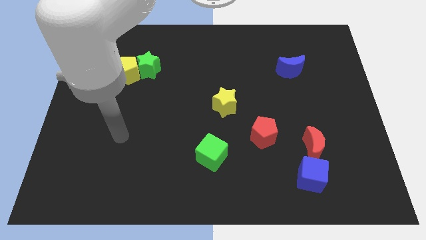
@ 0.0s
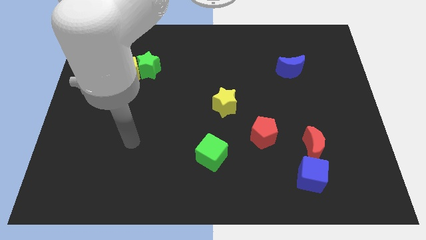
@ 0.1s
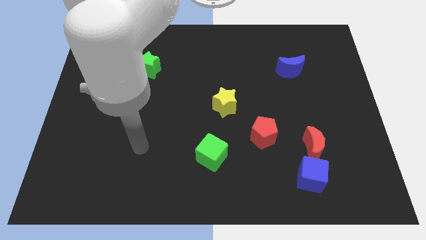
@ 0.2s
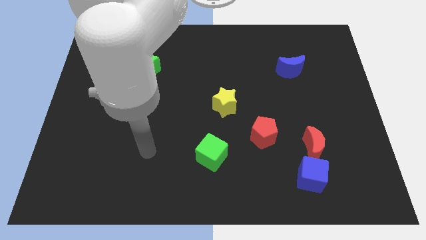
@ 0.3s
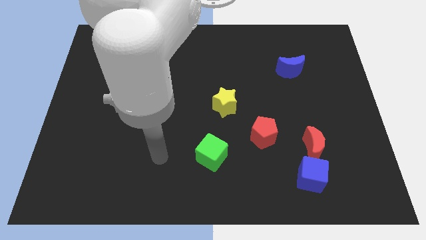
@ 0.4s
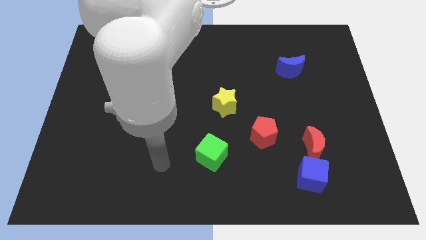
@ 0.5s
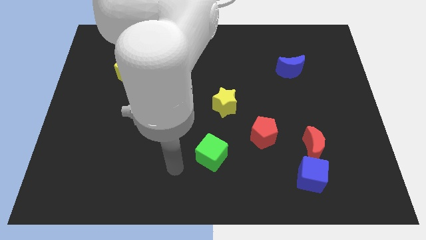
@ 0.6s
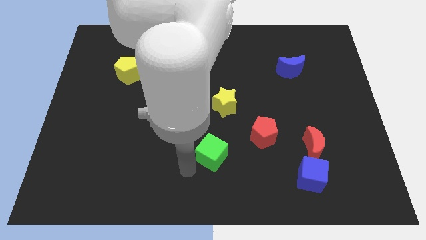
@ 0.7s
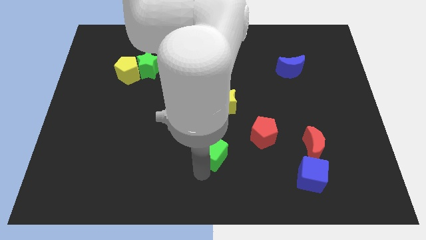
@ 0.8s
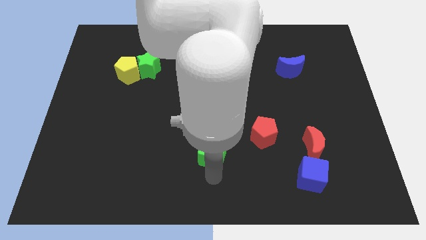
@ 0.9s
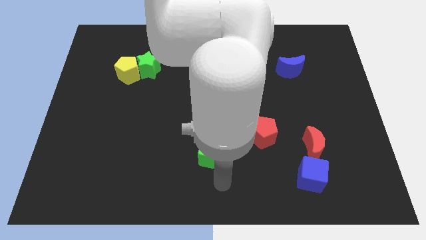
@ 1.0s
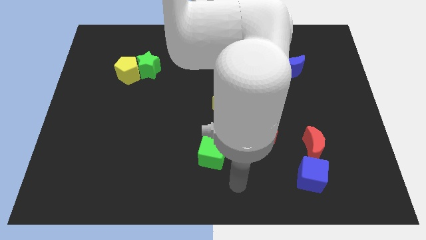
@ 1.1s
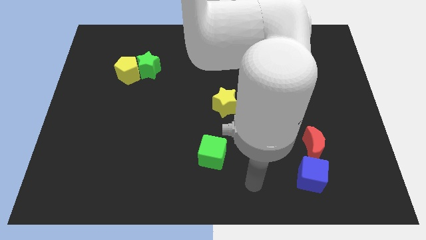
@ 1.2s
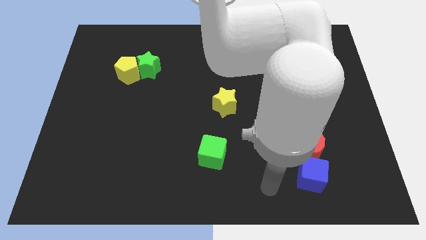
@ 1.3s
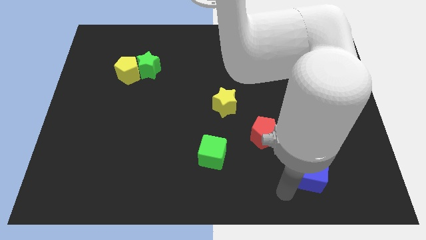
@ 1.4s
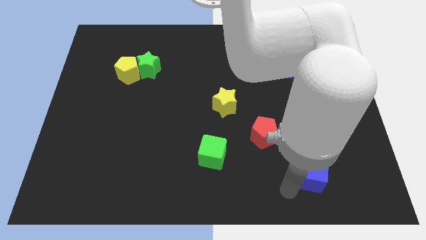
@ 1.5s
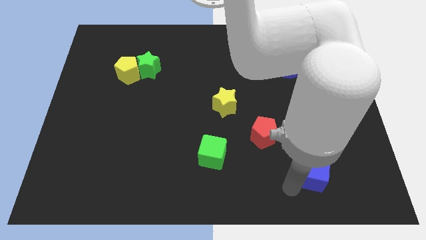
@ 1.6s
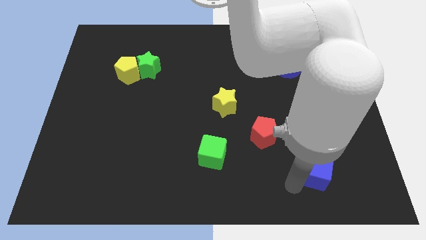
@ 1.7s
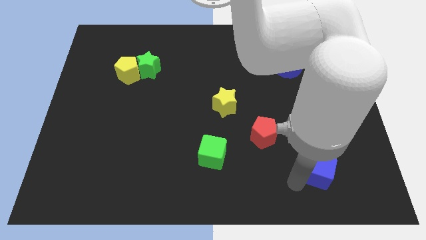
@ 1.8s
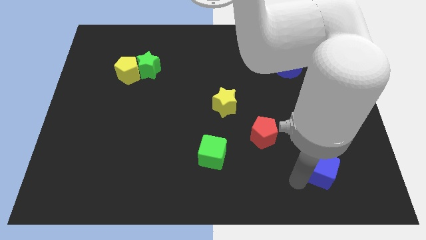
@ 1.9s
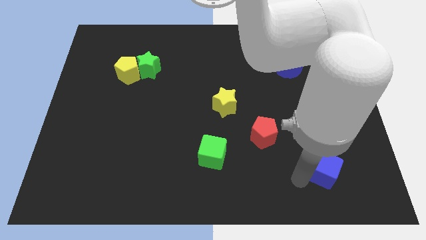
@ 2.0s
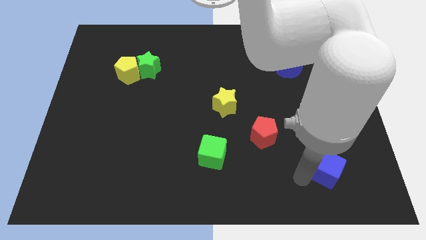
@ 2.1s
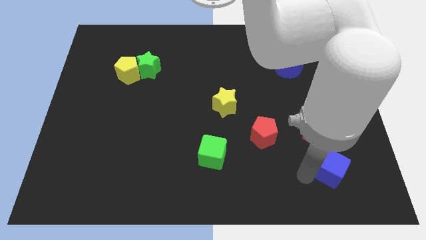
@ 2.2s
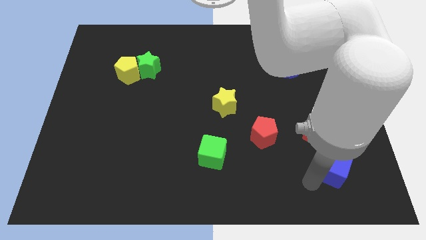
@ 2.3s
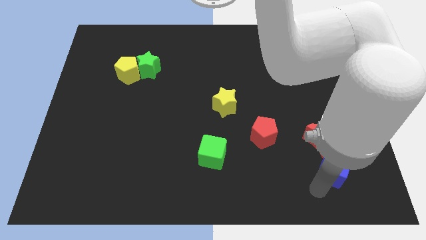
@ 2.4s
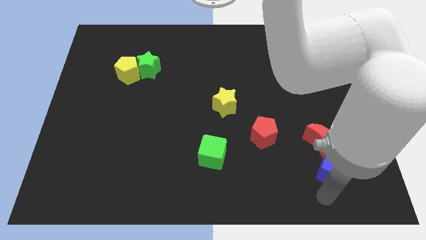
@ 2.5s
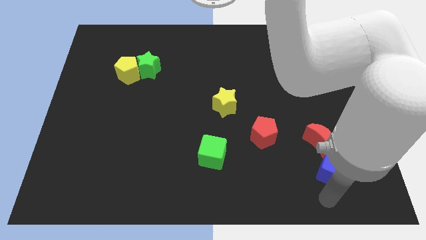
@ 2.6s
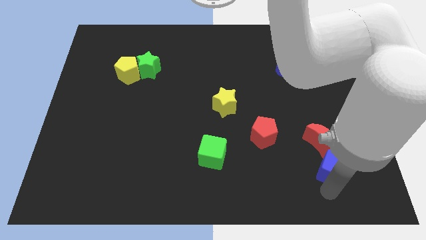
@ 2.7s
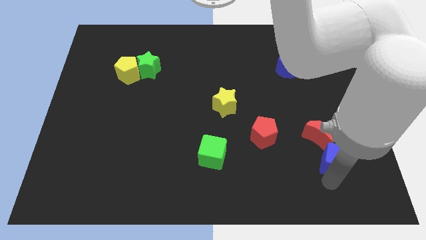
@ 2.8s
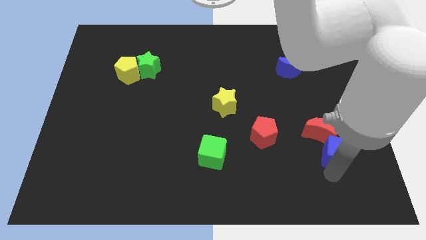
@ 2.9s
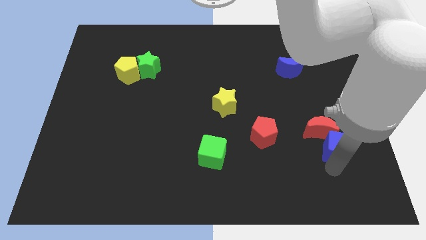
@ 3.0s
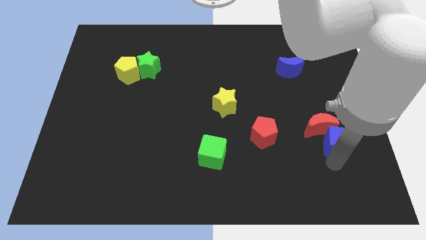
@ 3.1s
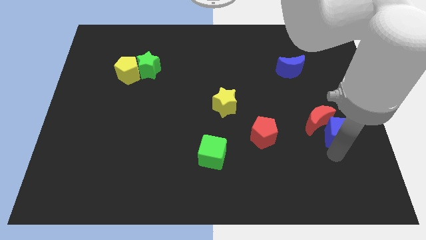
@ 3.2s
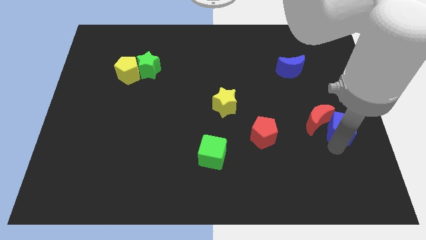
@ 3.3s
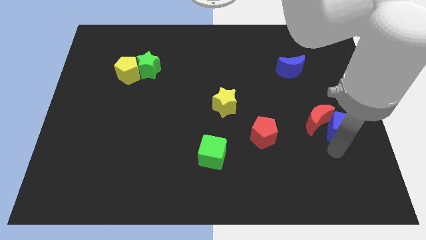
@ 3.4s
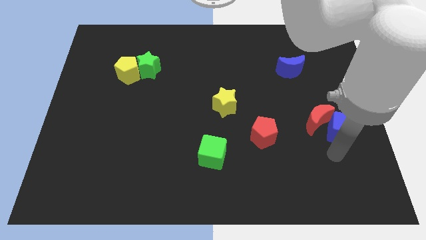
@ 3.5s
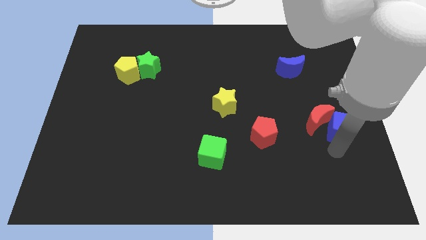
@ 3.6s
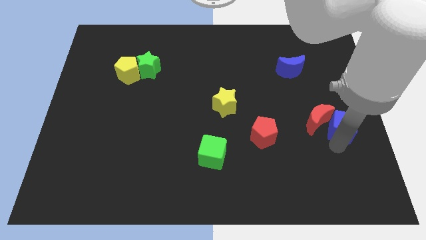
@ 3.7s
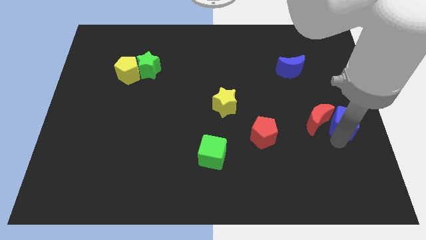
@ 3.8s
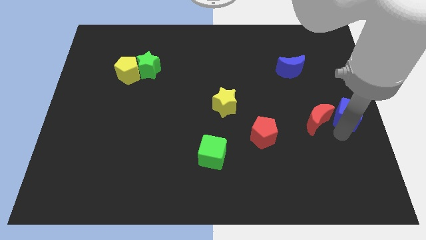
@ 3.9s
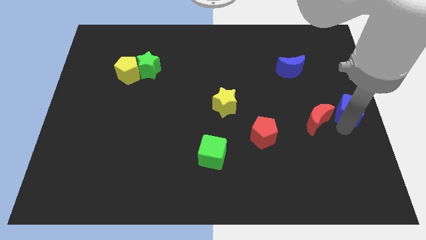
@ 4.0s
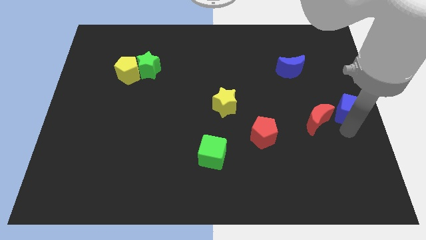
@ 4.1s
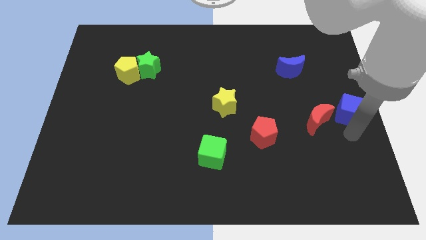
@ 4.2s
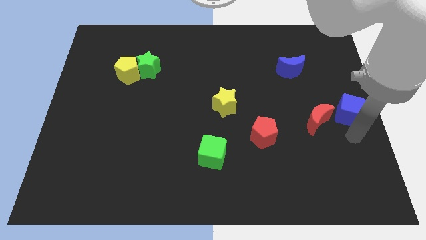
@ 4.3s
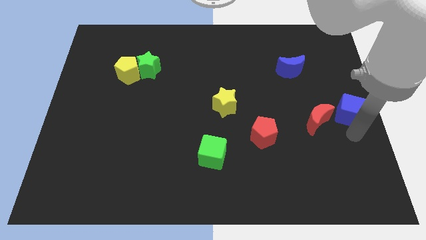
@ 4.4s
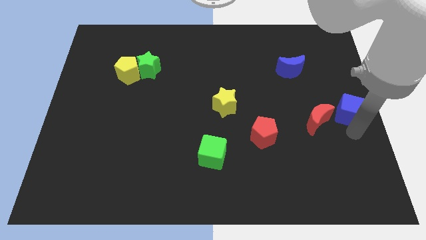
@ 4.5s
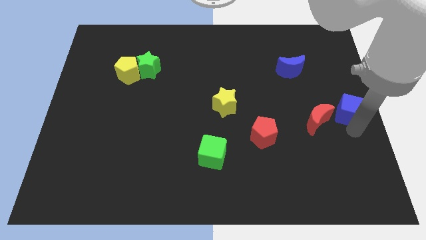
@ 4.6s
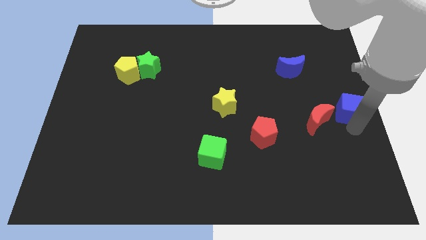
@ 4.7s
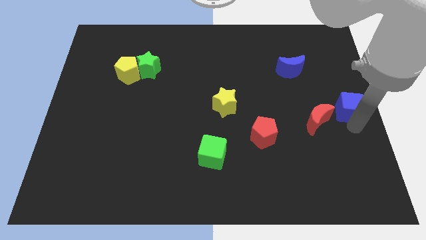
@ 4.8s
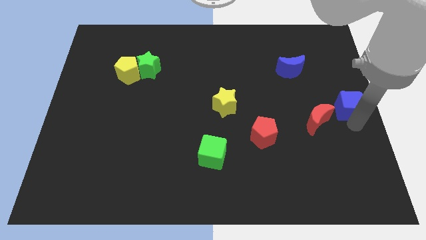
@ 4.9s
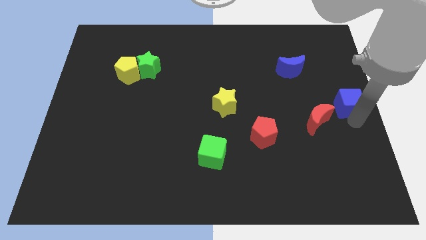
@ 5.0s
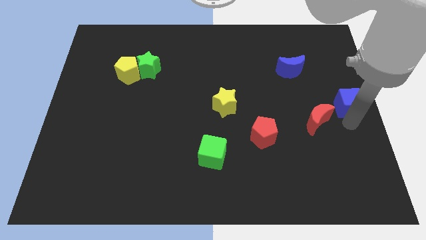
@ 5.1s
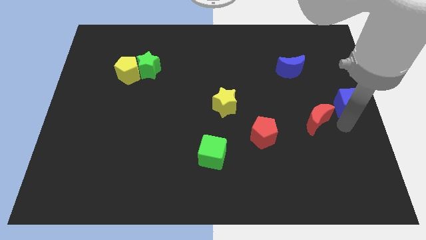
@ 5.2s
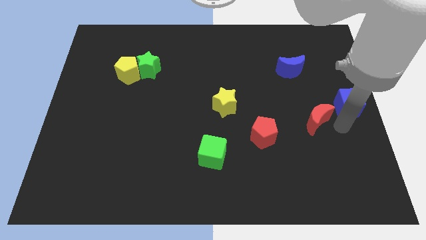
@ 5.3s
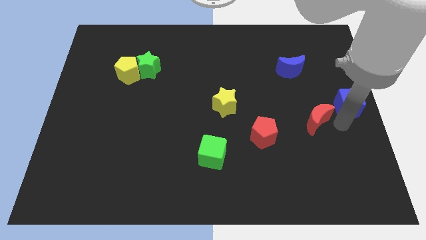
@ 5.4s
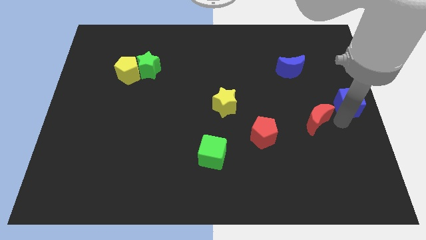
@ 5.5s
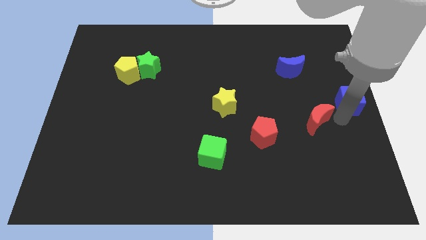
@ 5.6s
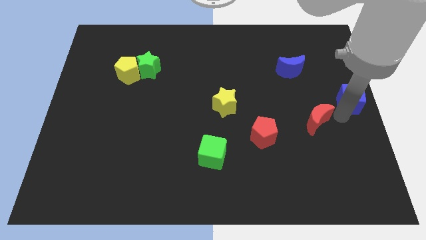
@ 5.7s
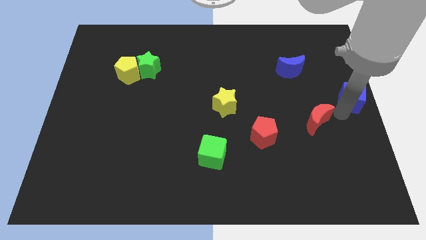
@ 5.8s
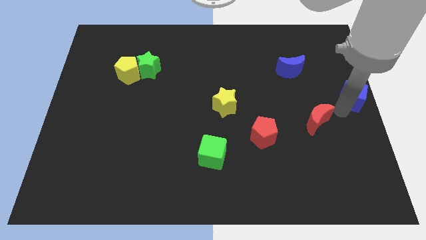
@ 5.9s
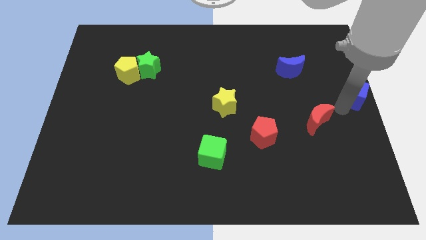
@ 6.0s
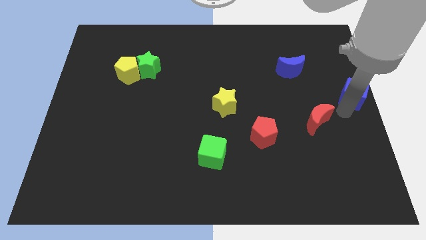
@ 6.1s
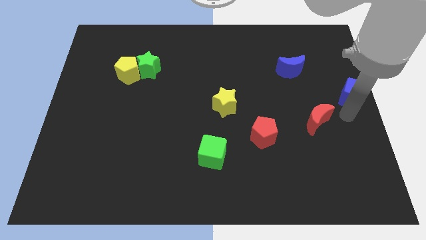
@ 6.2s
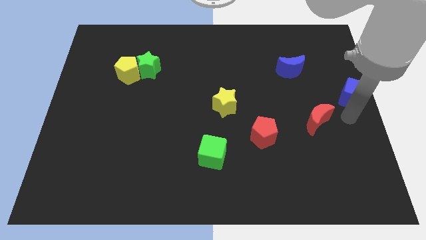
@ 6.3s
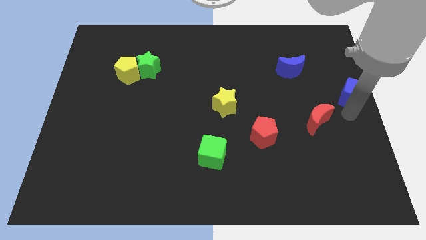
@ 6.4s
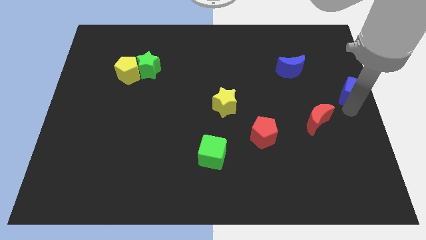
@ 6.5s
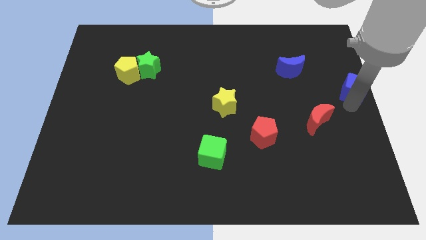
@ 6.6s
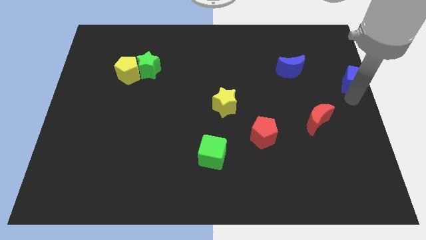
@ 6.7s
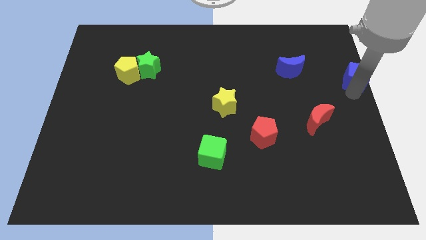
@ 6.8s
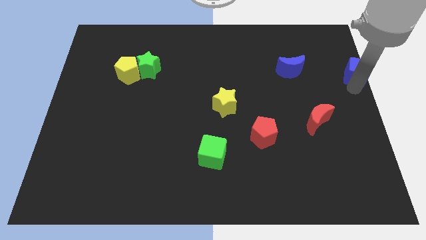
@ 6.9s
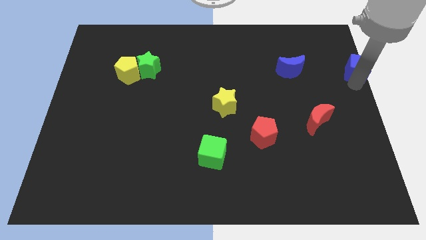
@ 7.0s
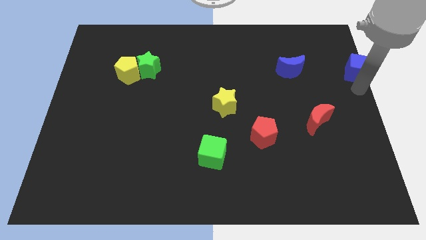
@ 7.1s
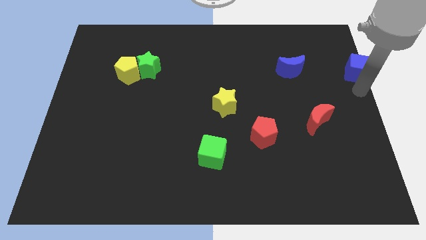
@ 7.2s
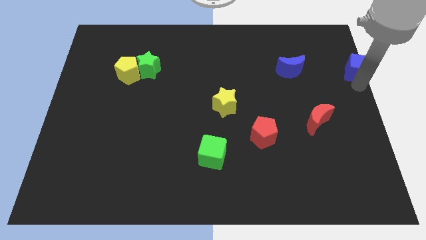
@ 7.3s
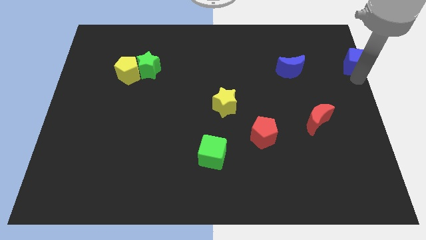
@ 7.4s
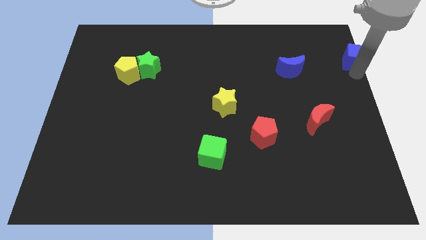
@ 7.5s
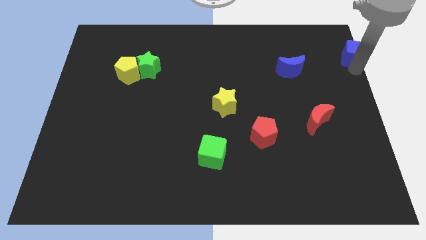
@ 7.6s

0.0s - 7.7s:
slide the blue cube to the top right corner

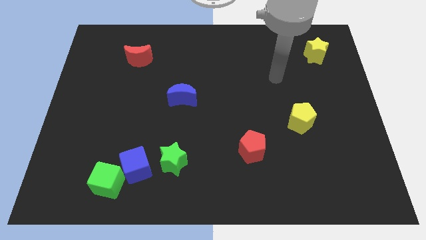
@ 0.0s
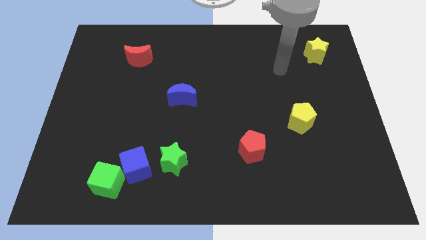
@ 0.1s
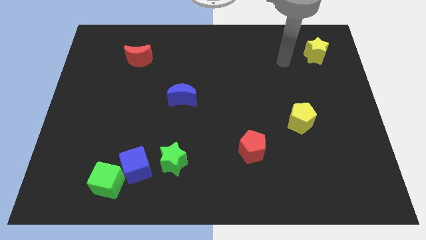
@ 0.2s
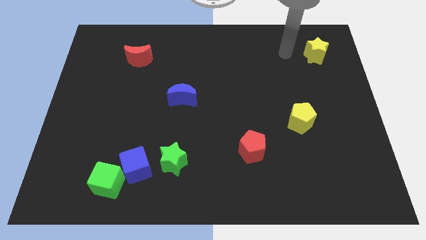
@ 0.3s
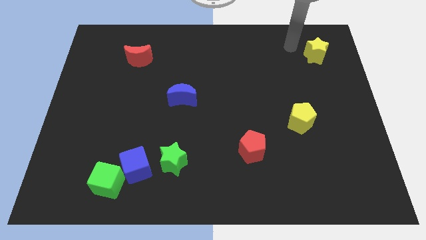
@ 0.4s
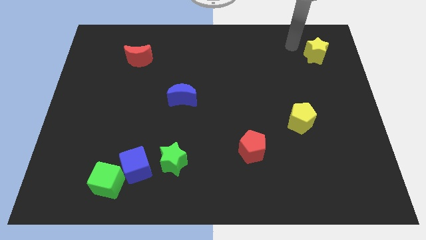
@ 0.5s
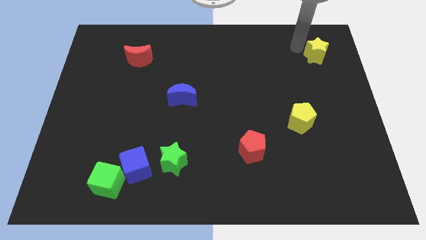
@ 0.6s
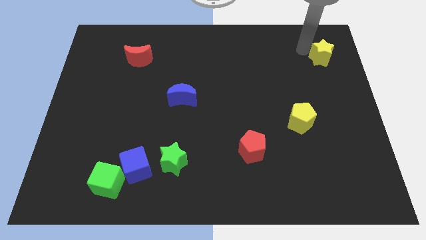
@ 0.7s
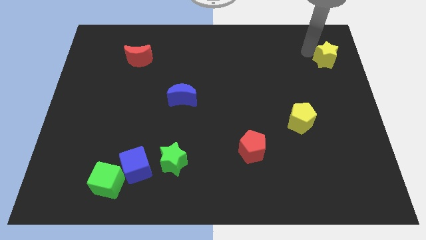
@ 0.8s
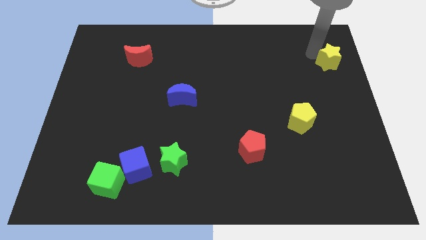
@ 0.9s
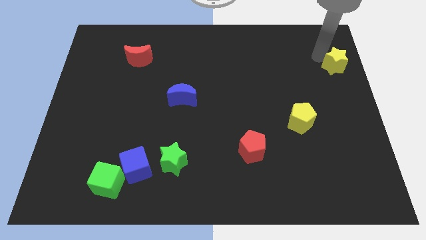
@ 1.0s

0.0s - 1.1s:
slide the yellow star to the center right
